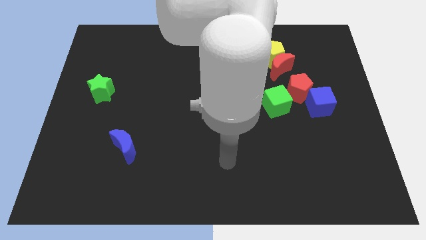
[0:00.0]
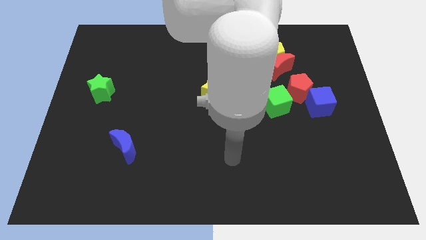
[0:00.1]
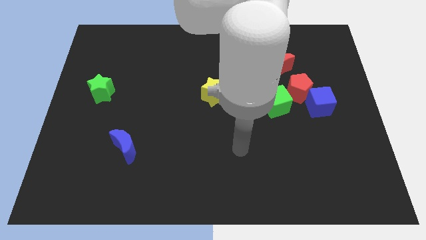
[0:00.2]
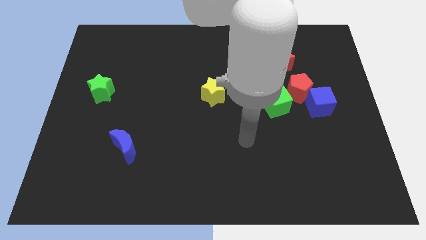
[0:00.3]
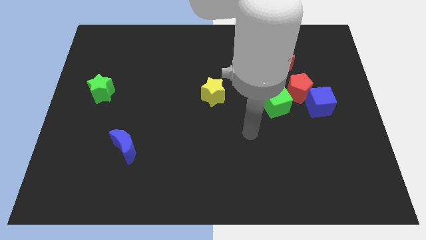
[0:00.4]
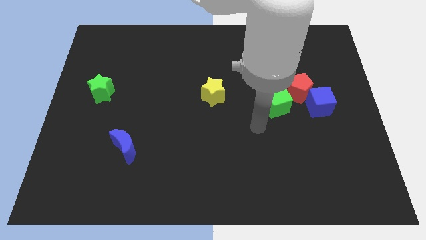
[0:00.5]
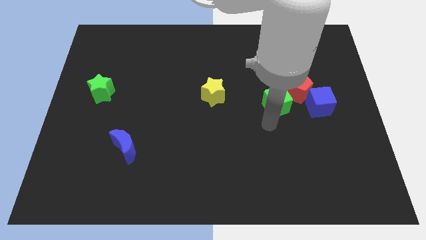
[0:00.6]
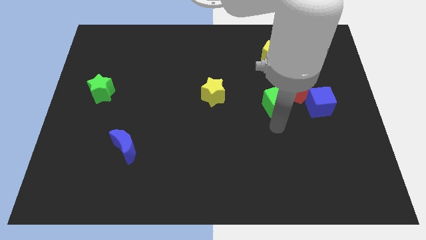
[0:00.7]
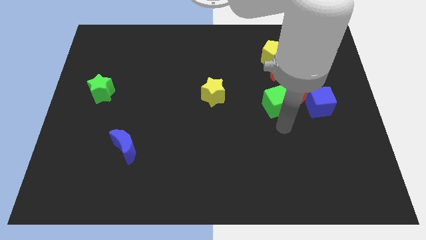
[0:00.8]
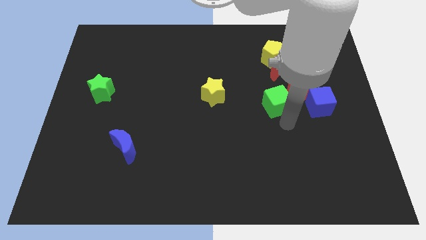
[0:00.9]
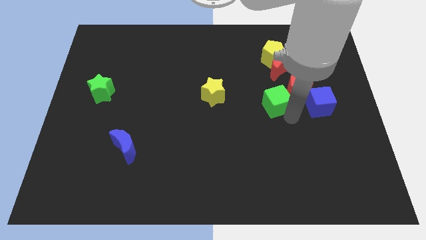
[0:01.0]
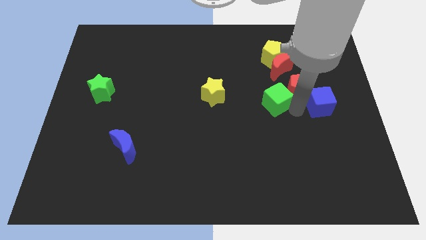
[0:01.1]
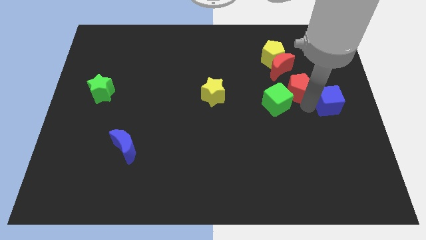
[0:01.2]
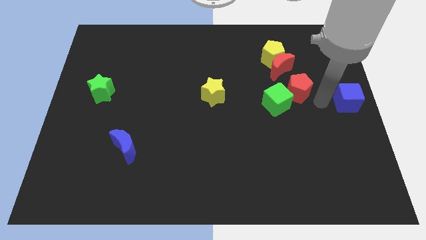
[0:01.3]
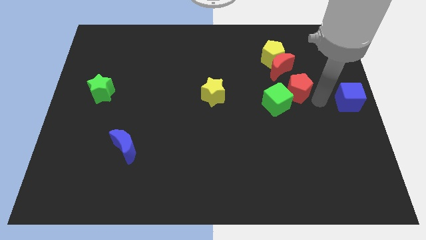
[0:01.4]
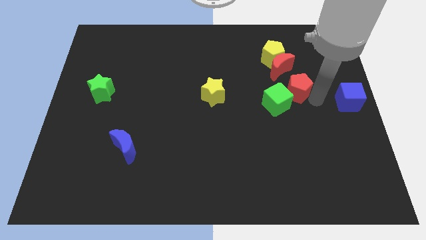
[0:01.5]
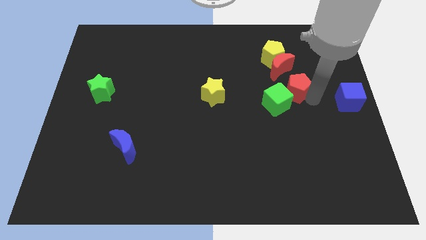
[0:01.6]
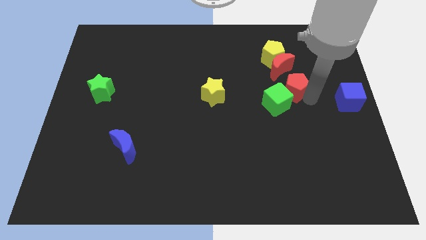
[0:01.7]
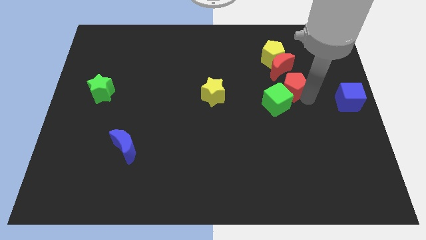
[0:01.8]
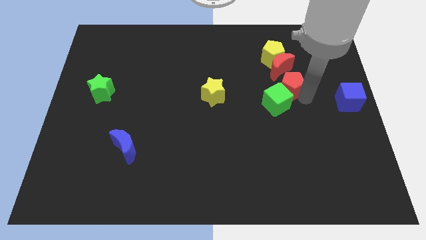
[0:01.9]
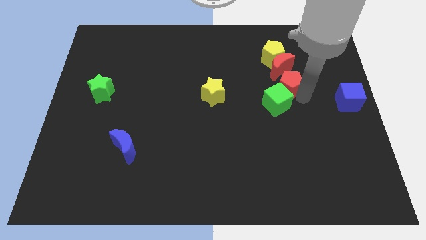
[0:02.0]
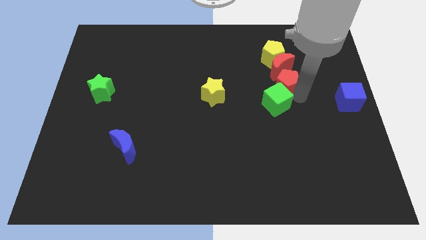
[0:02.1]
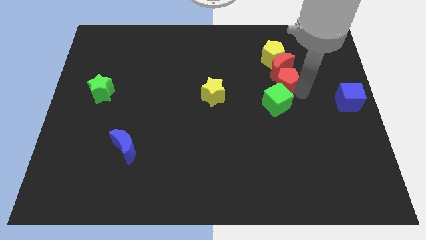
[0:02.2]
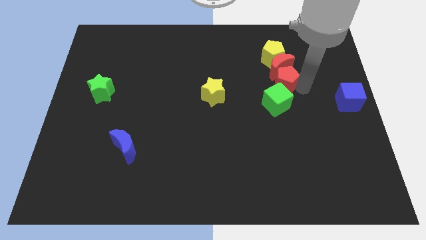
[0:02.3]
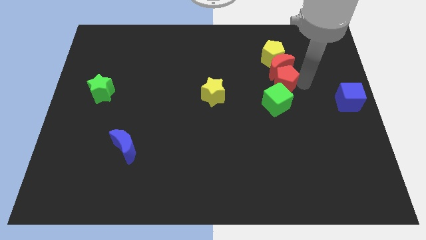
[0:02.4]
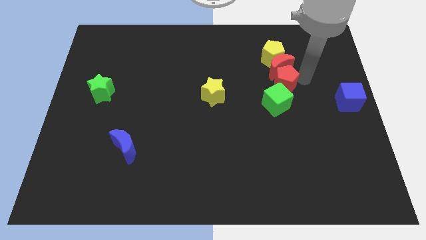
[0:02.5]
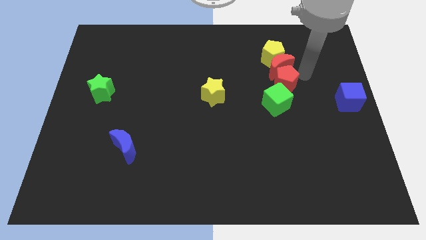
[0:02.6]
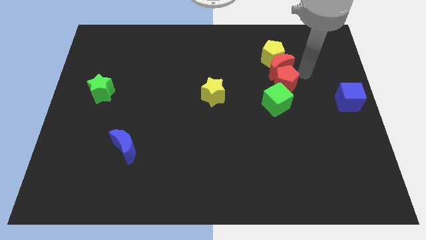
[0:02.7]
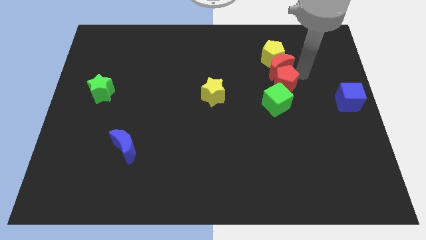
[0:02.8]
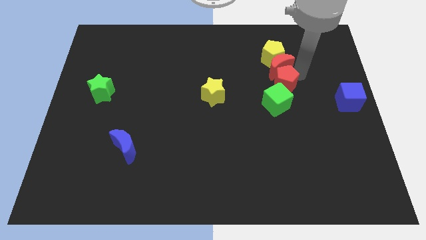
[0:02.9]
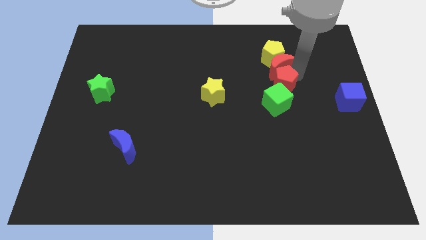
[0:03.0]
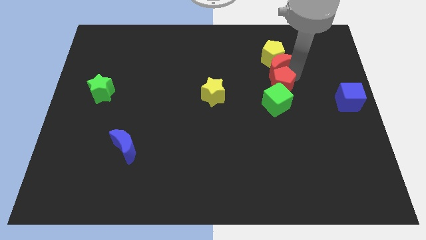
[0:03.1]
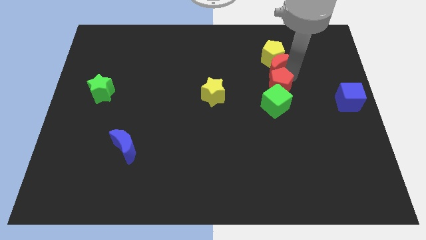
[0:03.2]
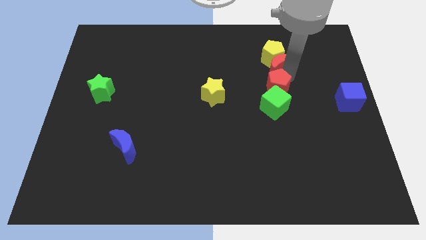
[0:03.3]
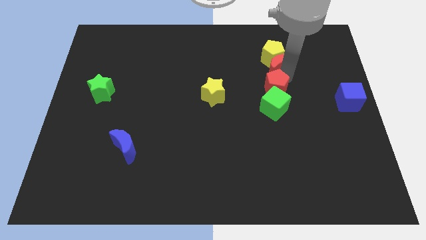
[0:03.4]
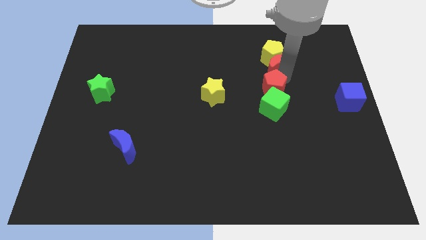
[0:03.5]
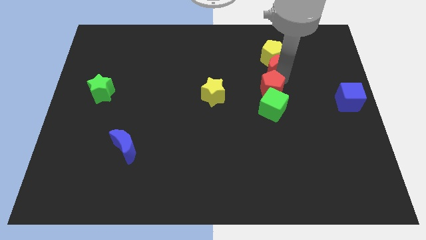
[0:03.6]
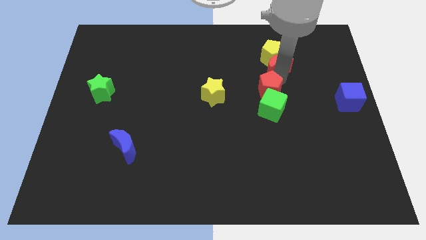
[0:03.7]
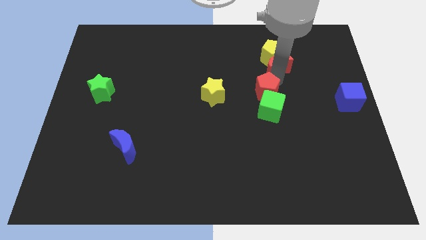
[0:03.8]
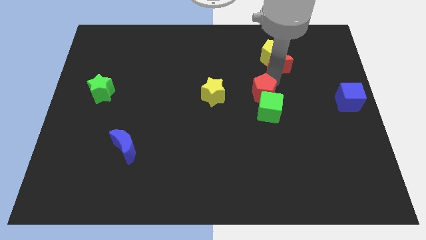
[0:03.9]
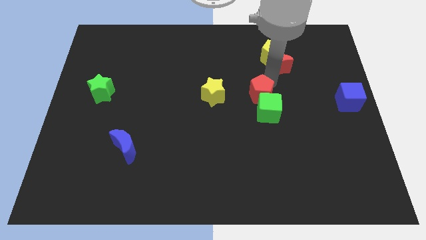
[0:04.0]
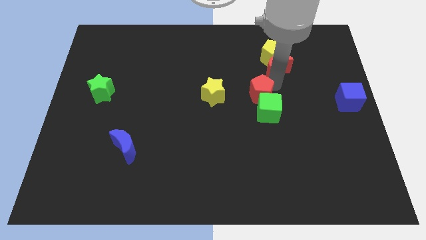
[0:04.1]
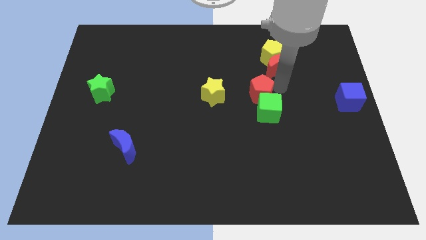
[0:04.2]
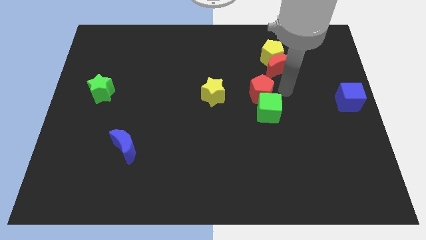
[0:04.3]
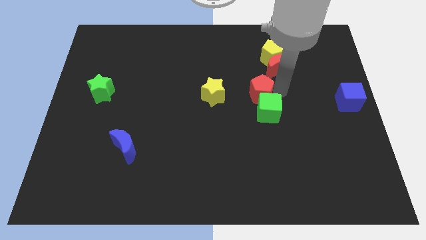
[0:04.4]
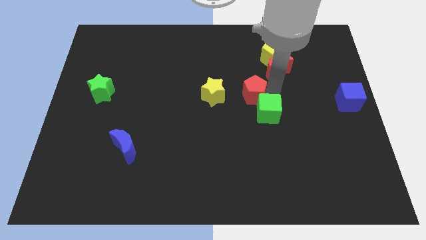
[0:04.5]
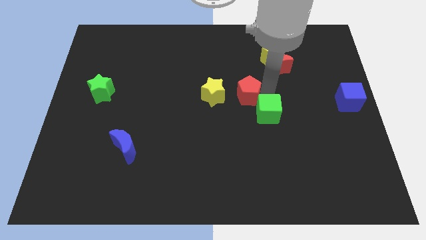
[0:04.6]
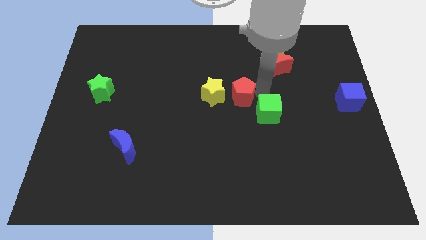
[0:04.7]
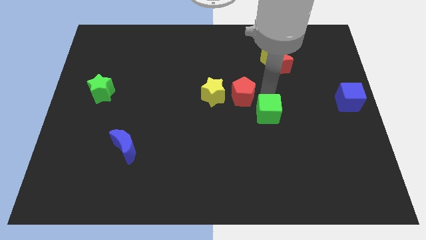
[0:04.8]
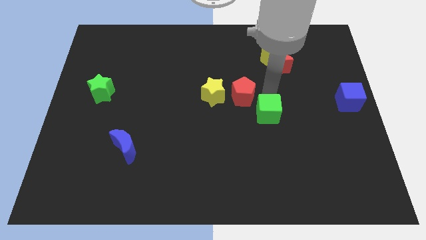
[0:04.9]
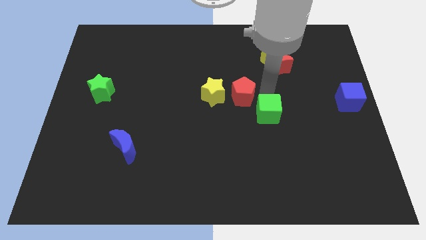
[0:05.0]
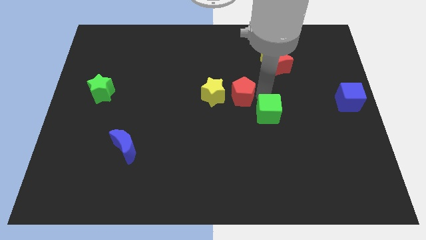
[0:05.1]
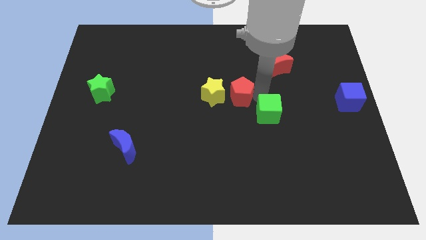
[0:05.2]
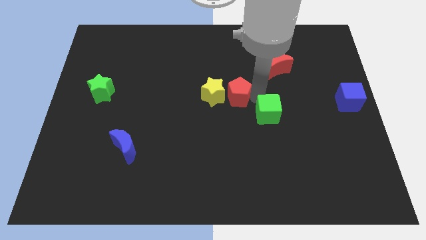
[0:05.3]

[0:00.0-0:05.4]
slide the red pentagon next to the yellow star

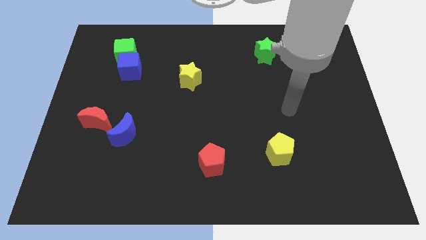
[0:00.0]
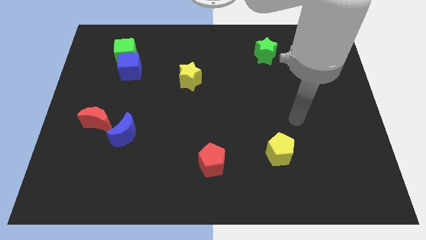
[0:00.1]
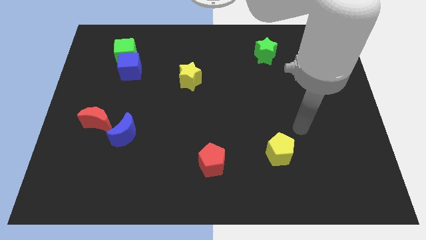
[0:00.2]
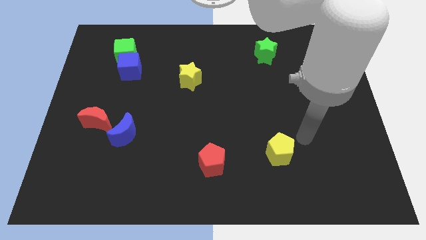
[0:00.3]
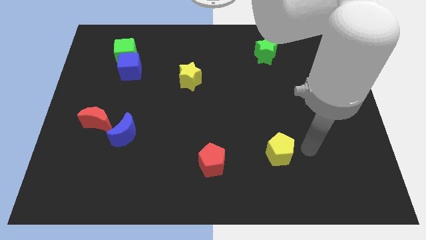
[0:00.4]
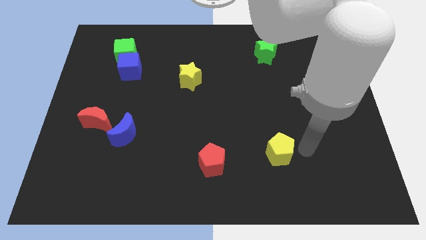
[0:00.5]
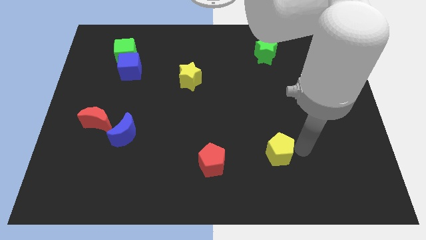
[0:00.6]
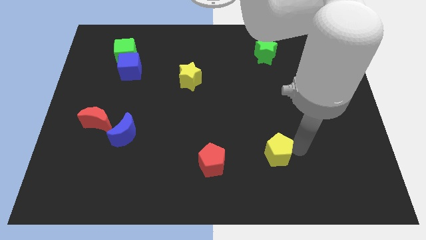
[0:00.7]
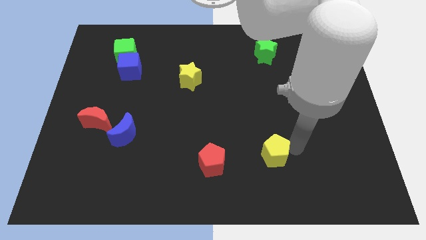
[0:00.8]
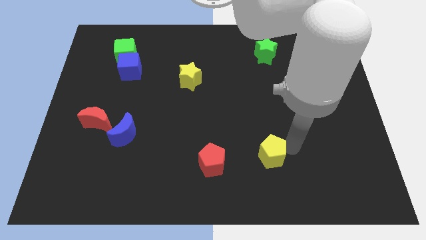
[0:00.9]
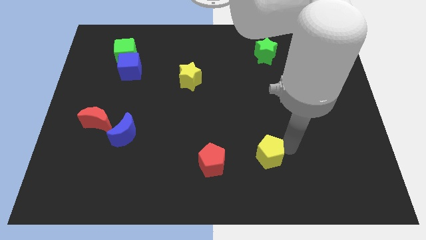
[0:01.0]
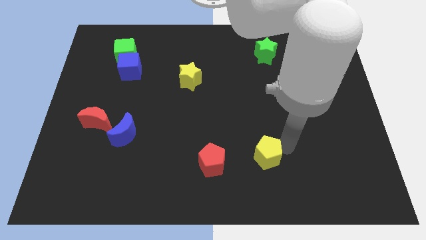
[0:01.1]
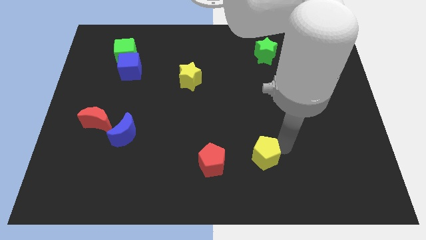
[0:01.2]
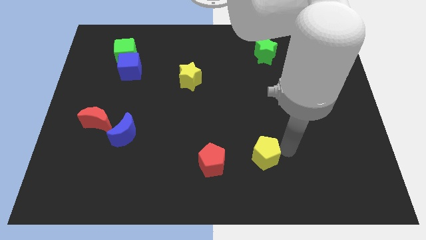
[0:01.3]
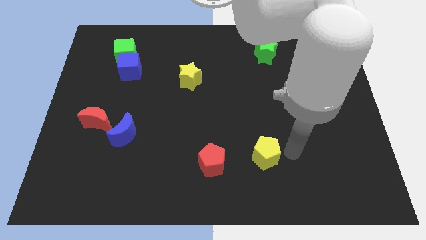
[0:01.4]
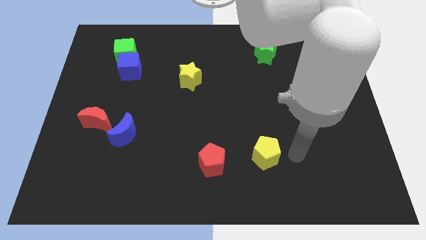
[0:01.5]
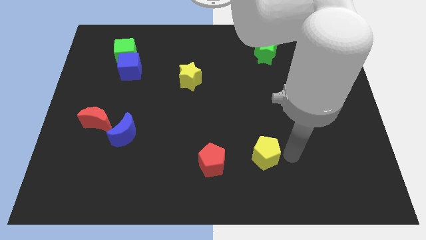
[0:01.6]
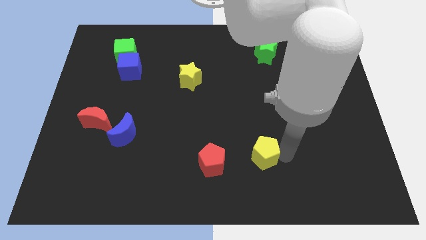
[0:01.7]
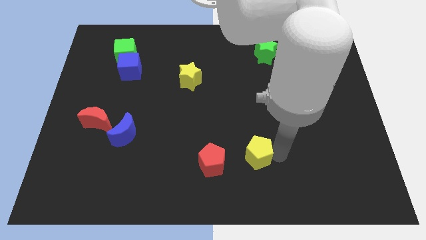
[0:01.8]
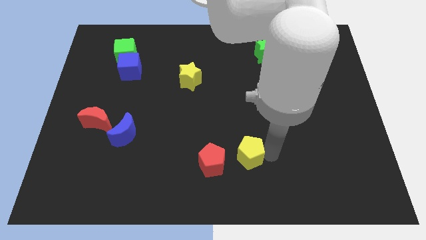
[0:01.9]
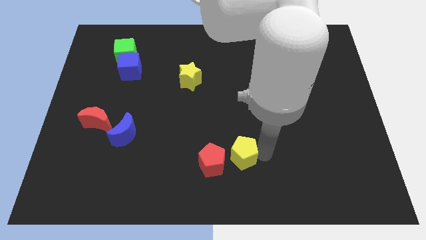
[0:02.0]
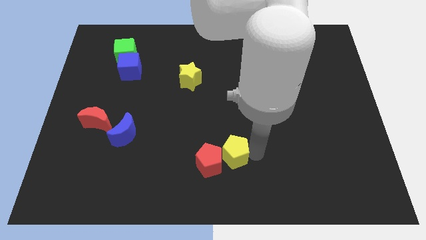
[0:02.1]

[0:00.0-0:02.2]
slide the yellow pentagon close to the red pentagon

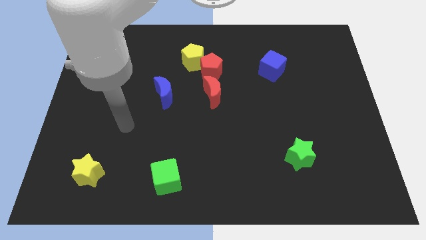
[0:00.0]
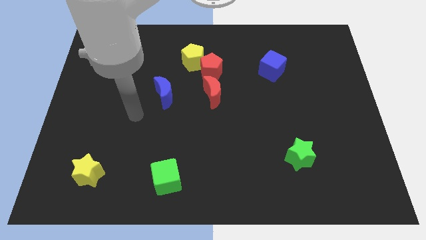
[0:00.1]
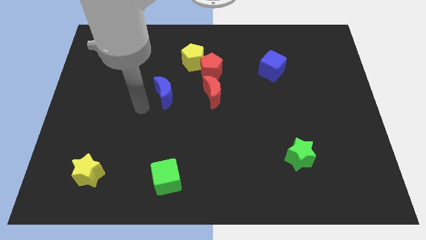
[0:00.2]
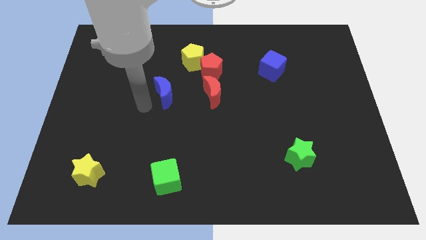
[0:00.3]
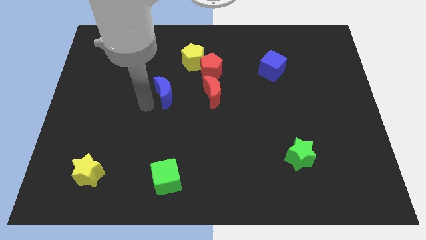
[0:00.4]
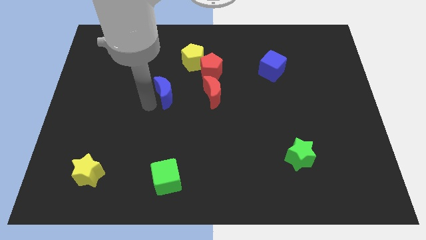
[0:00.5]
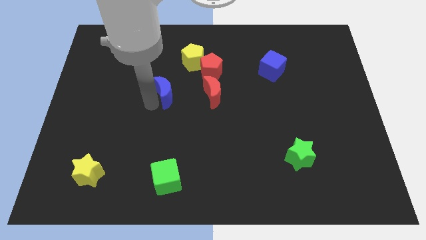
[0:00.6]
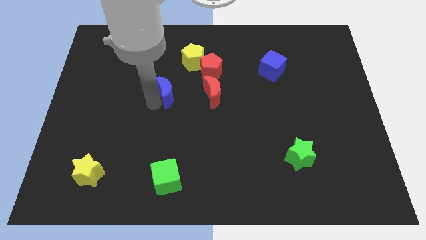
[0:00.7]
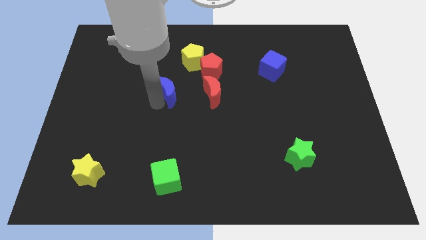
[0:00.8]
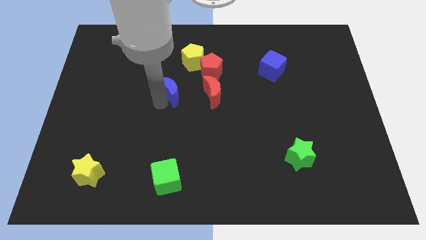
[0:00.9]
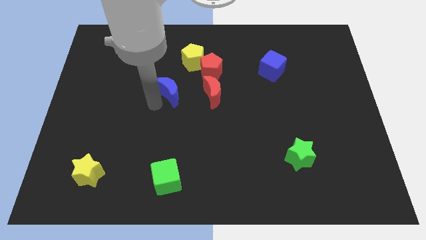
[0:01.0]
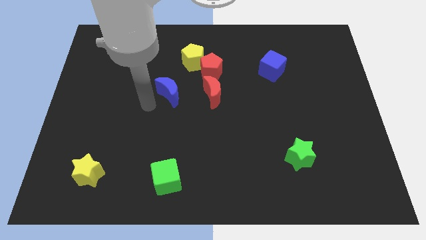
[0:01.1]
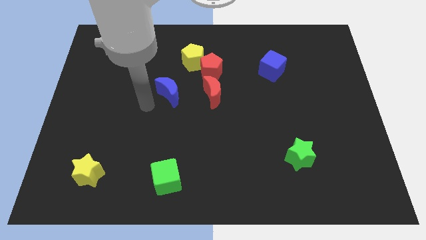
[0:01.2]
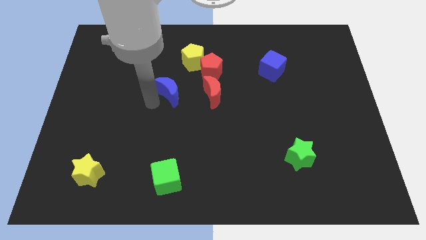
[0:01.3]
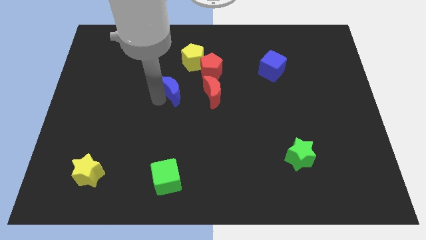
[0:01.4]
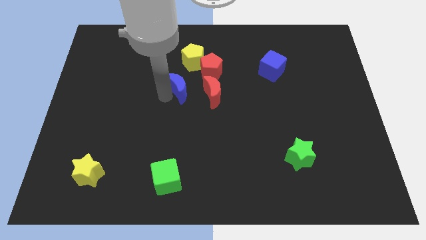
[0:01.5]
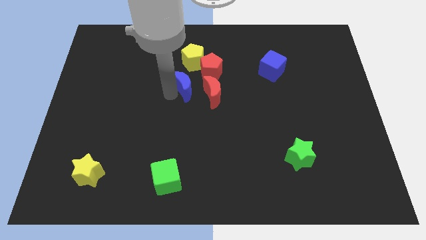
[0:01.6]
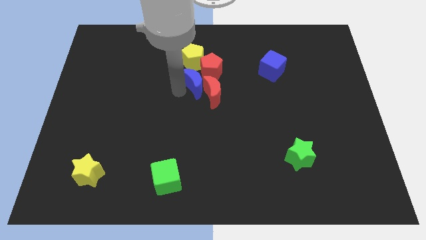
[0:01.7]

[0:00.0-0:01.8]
move the blue moon towards the red pentagon
